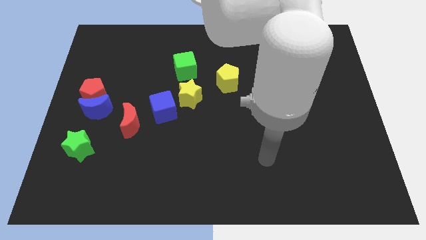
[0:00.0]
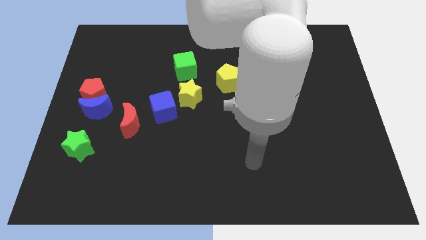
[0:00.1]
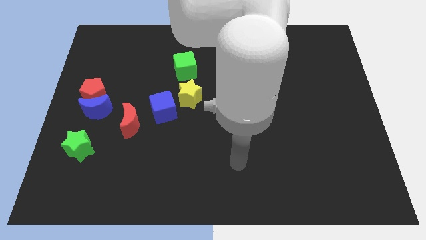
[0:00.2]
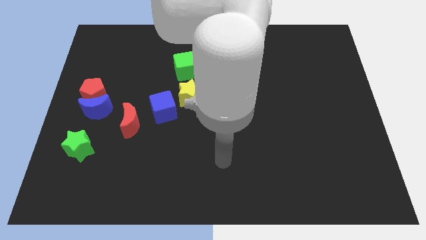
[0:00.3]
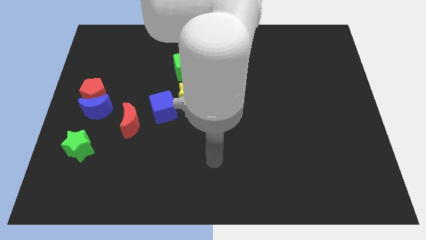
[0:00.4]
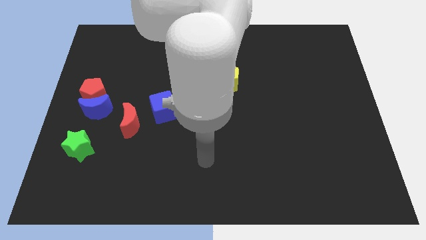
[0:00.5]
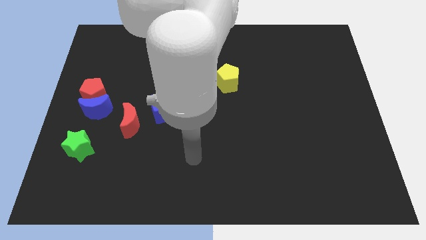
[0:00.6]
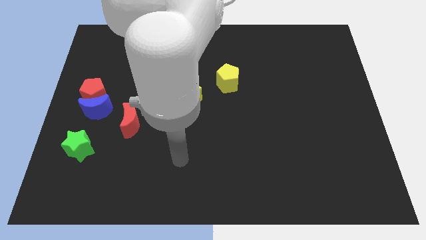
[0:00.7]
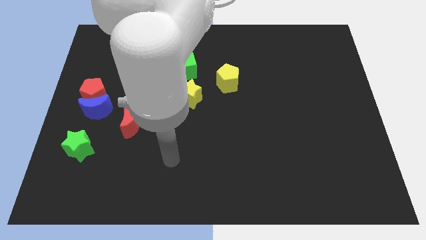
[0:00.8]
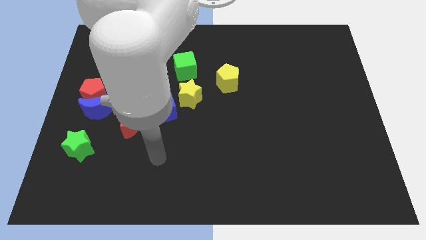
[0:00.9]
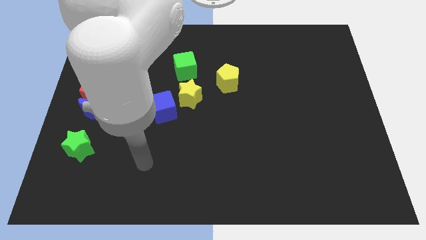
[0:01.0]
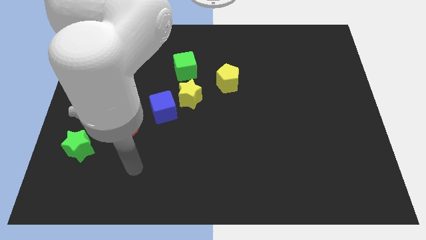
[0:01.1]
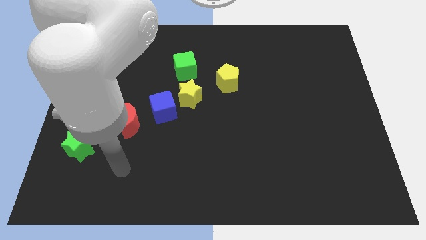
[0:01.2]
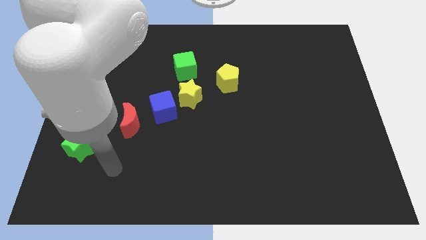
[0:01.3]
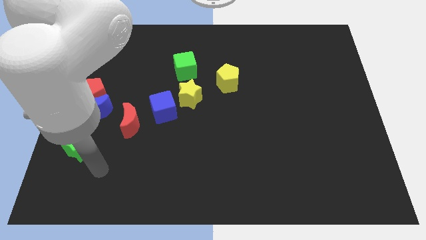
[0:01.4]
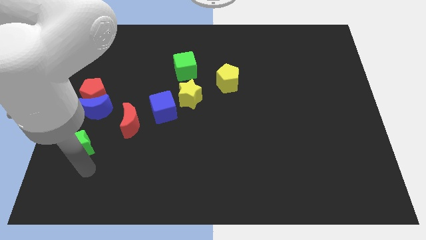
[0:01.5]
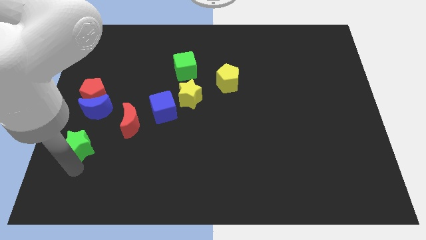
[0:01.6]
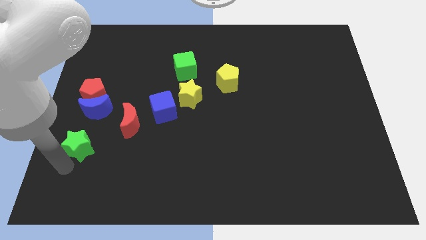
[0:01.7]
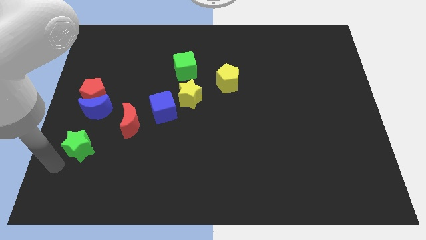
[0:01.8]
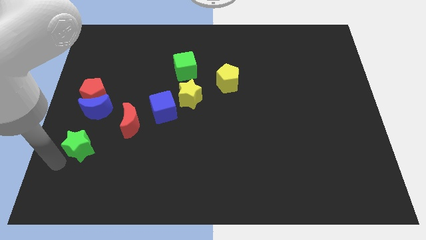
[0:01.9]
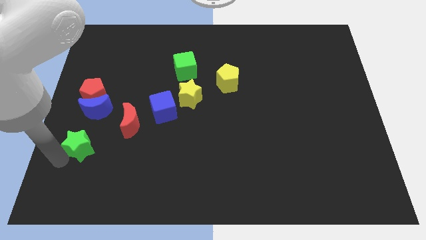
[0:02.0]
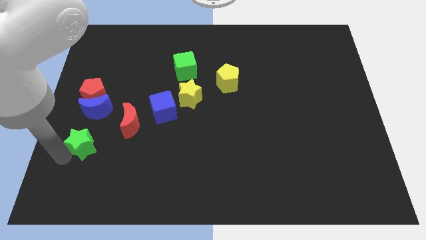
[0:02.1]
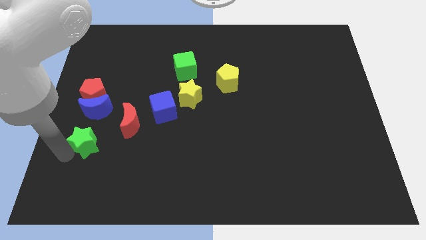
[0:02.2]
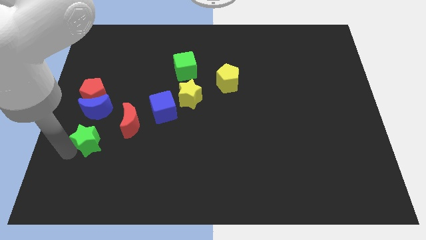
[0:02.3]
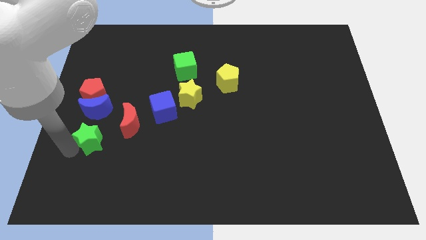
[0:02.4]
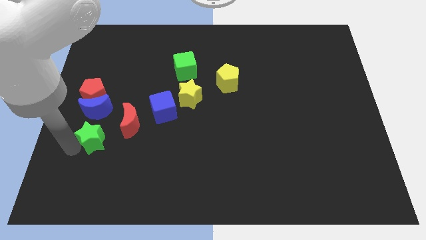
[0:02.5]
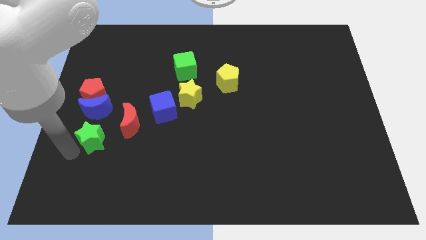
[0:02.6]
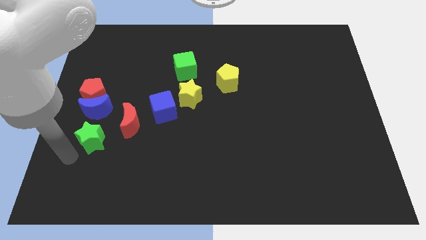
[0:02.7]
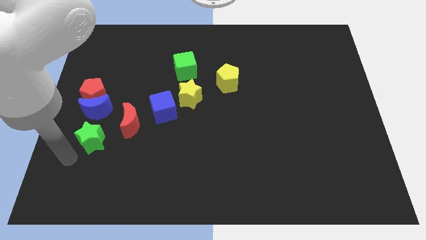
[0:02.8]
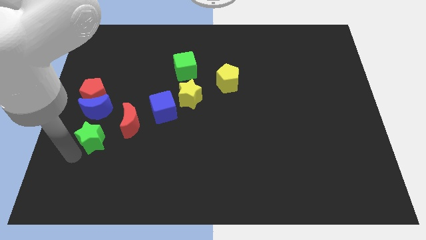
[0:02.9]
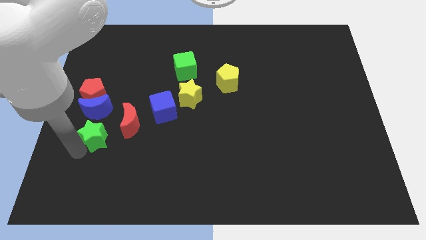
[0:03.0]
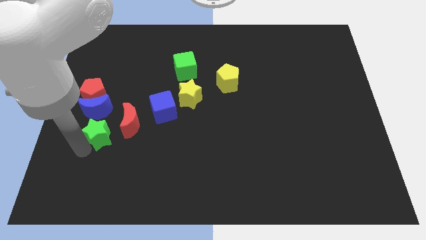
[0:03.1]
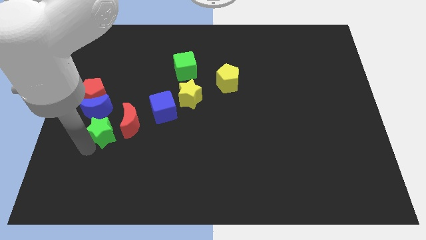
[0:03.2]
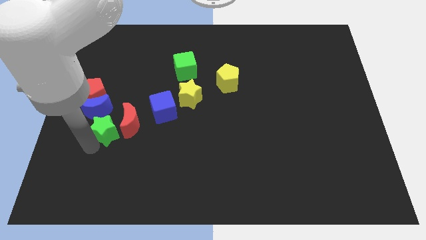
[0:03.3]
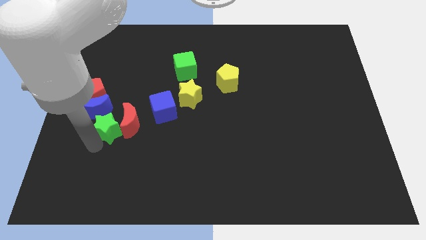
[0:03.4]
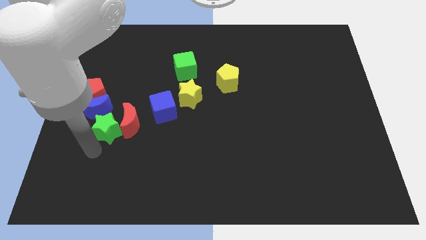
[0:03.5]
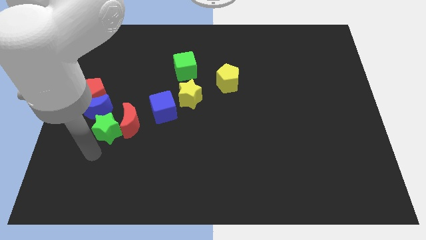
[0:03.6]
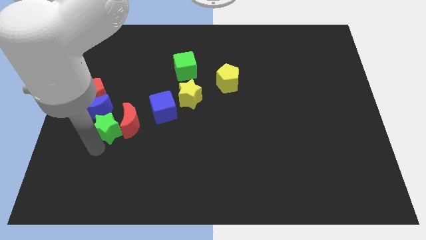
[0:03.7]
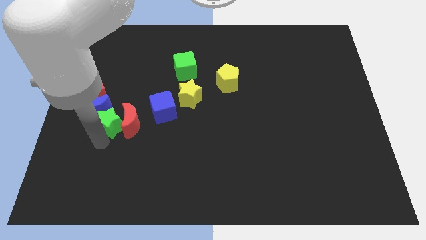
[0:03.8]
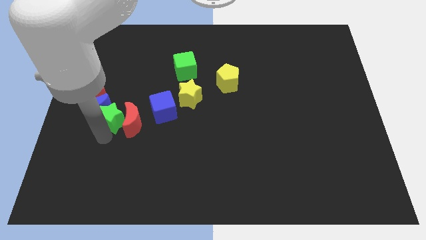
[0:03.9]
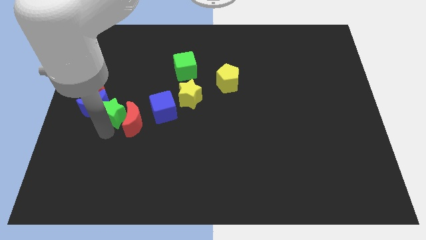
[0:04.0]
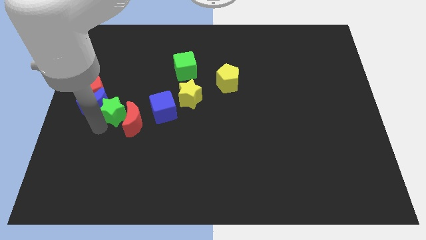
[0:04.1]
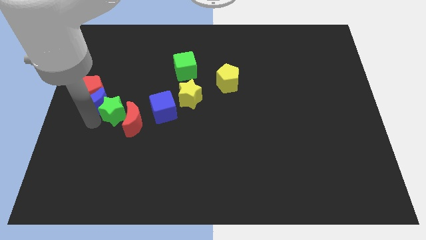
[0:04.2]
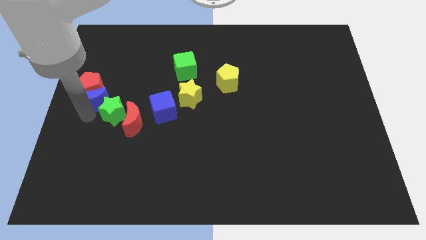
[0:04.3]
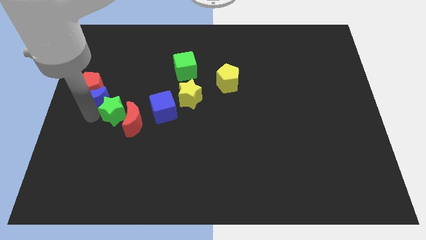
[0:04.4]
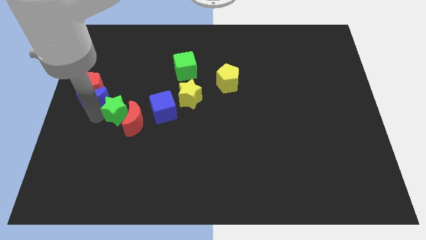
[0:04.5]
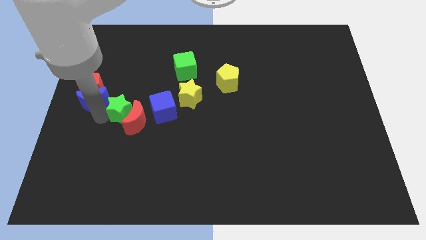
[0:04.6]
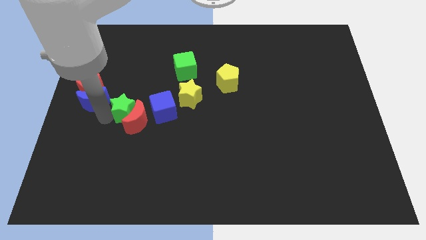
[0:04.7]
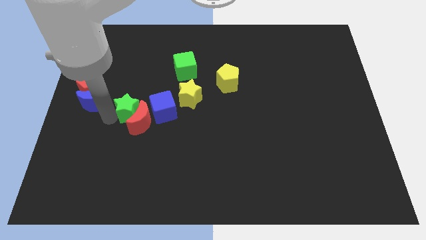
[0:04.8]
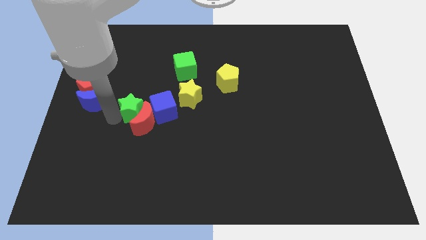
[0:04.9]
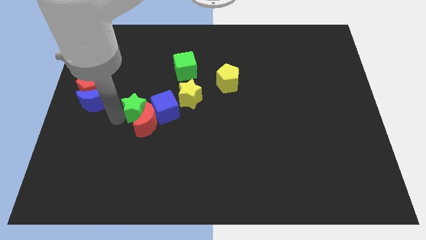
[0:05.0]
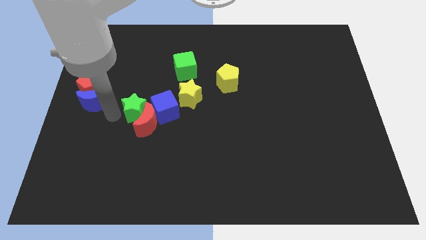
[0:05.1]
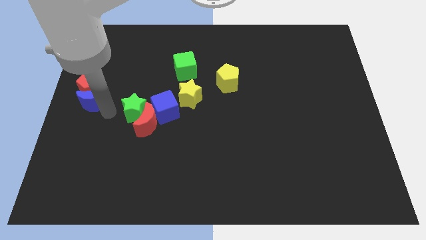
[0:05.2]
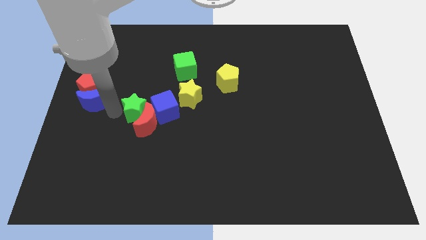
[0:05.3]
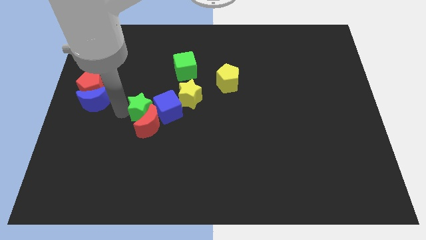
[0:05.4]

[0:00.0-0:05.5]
move the green star towards the blue cube

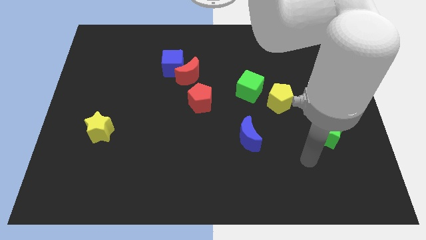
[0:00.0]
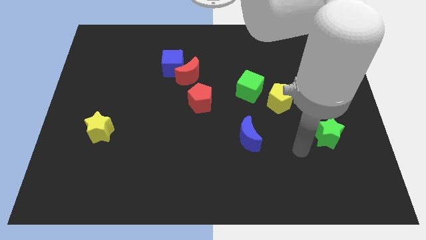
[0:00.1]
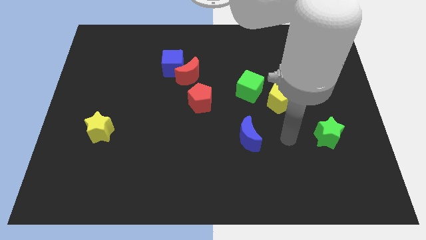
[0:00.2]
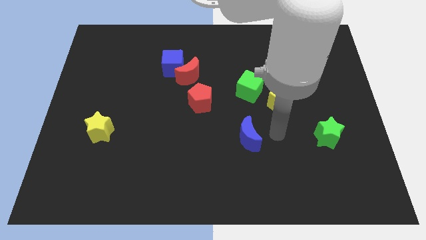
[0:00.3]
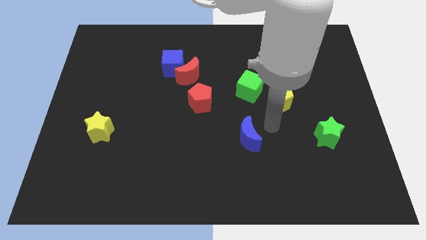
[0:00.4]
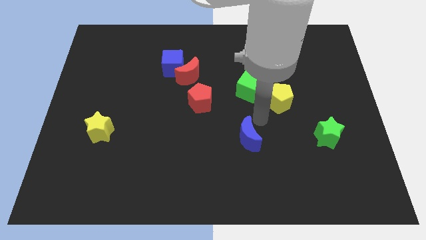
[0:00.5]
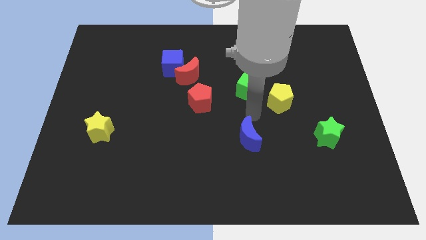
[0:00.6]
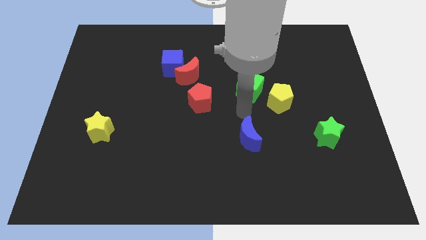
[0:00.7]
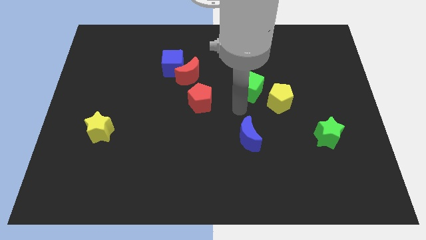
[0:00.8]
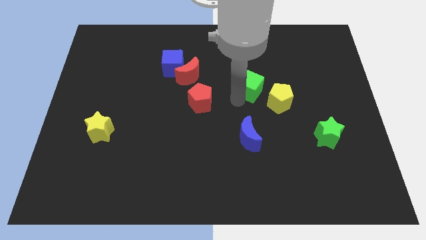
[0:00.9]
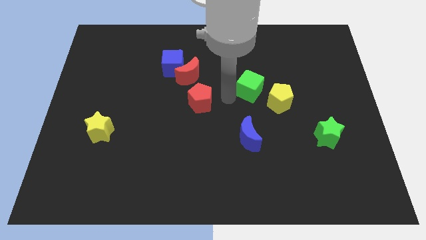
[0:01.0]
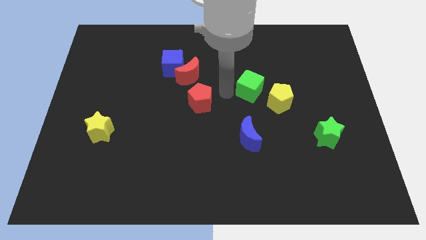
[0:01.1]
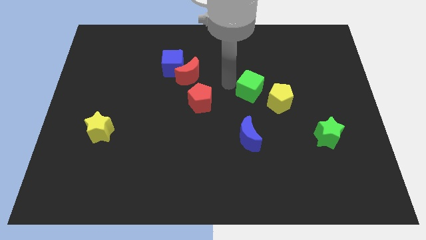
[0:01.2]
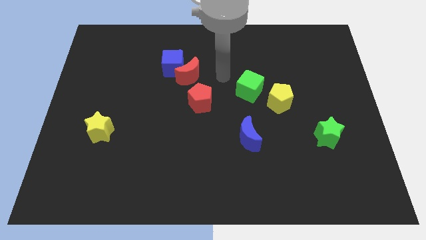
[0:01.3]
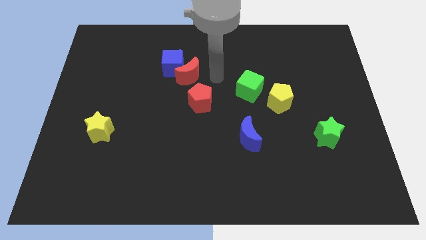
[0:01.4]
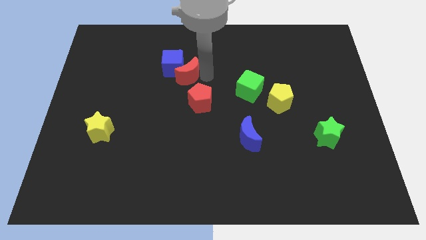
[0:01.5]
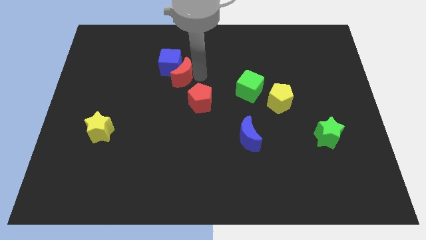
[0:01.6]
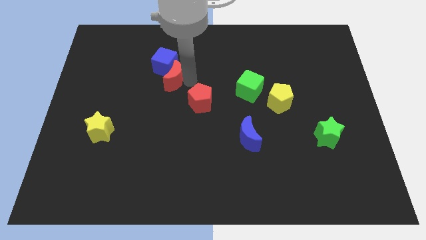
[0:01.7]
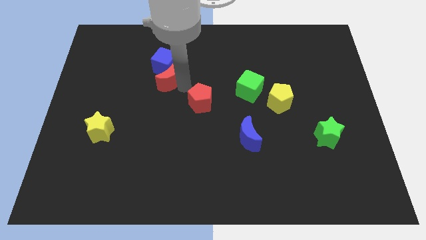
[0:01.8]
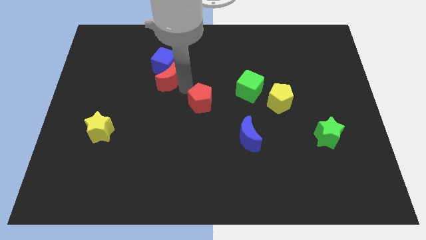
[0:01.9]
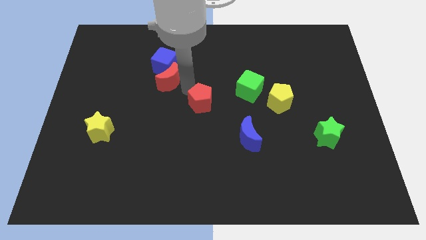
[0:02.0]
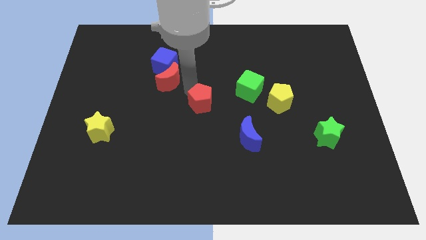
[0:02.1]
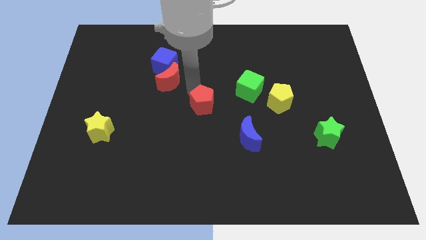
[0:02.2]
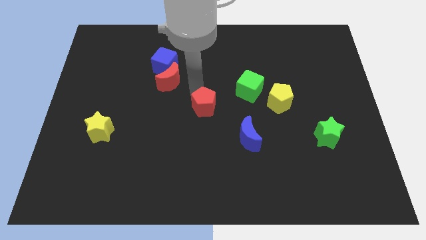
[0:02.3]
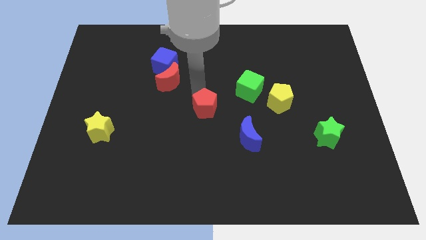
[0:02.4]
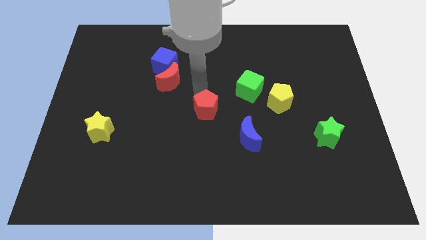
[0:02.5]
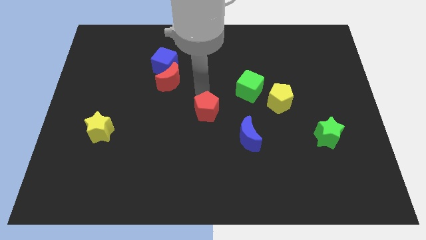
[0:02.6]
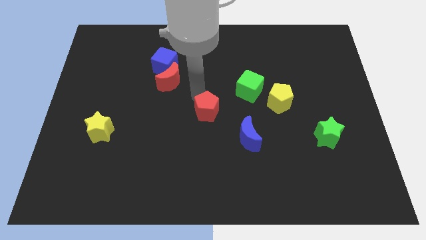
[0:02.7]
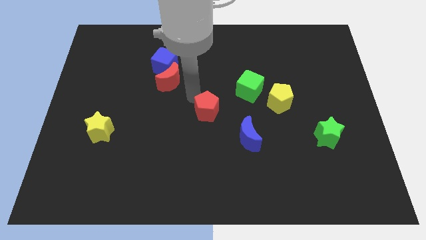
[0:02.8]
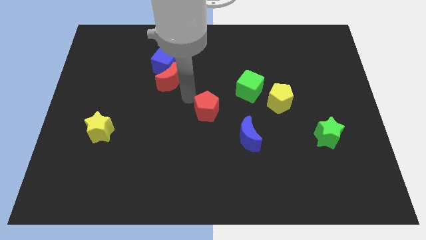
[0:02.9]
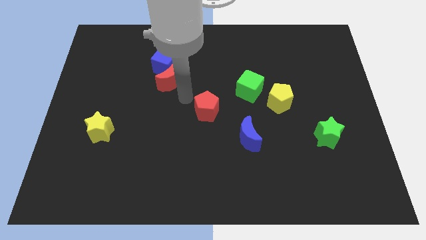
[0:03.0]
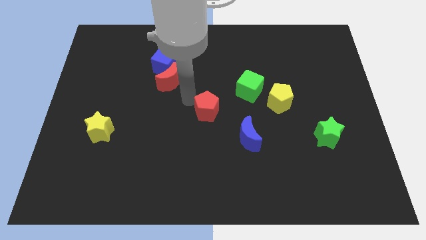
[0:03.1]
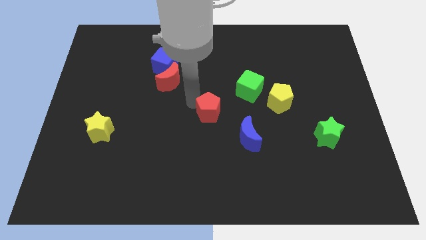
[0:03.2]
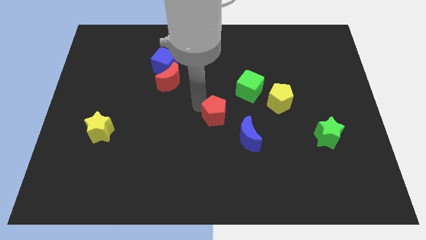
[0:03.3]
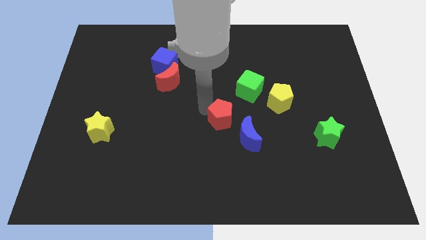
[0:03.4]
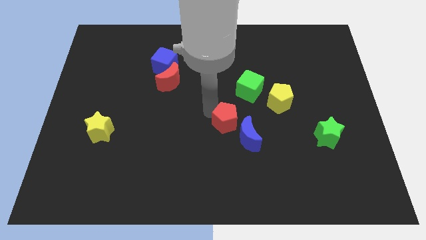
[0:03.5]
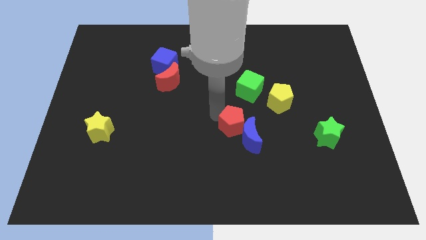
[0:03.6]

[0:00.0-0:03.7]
move the red pentagon close to the blue moon
